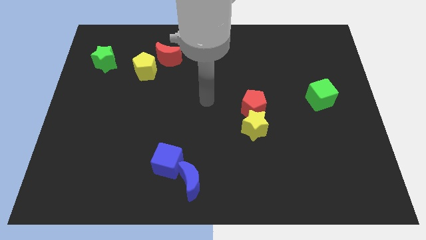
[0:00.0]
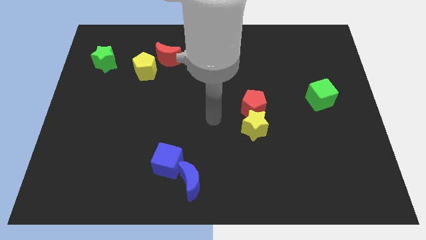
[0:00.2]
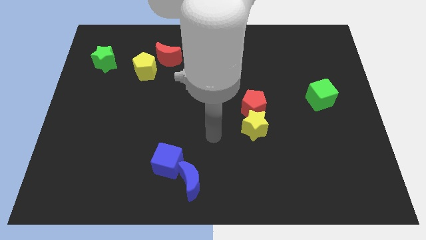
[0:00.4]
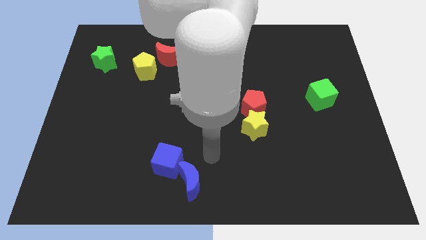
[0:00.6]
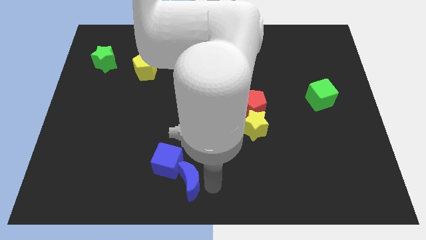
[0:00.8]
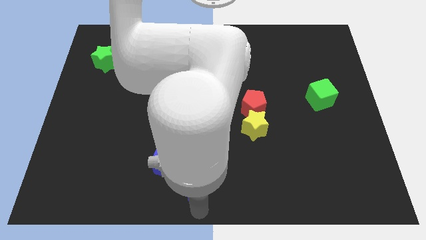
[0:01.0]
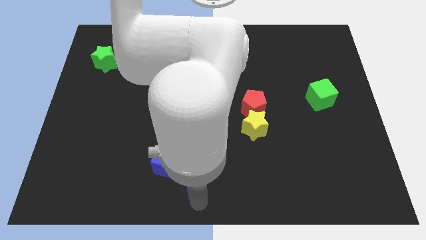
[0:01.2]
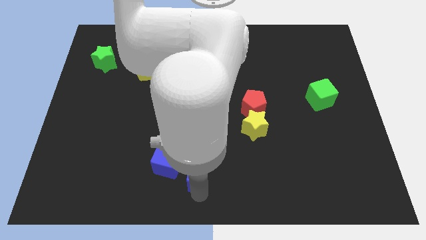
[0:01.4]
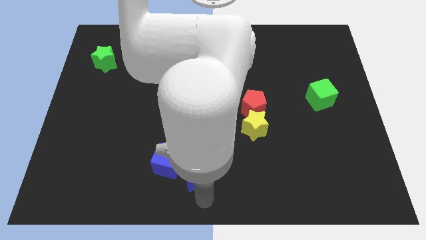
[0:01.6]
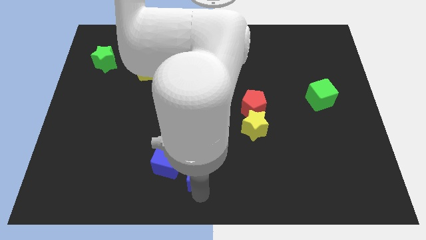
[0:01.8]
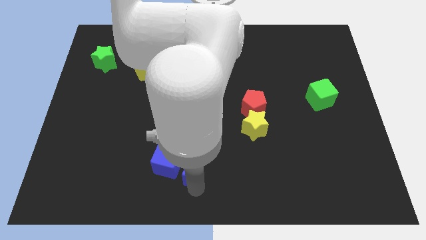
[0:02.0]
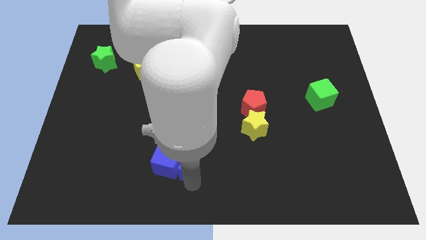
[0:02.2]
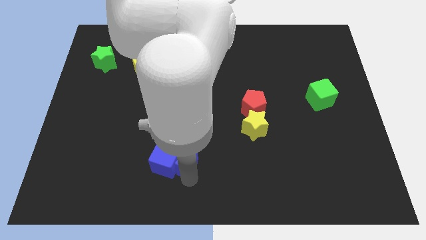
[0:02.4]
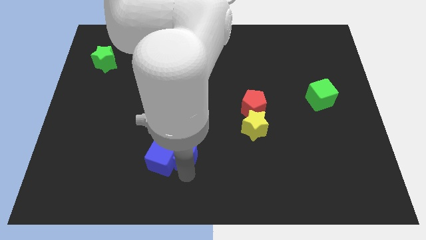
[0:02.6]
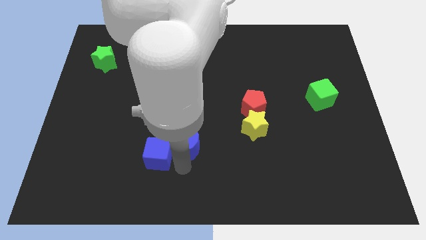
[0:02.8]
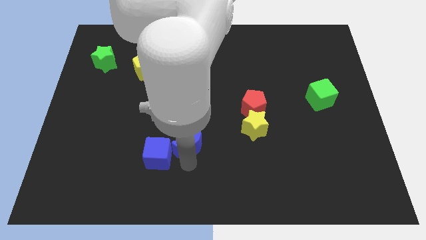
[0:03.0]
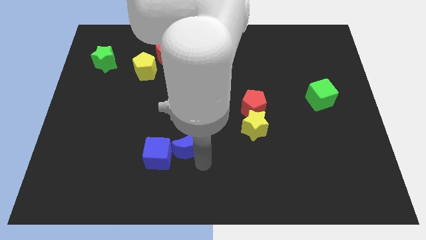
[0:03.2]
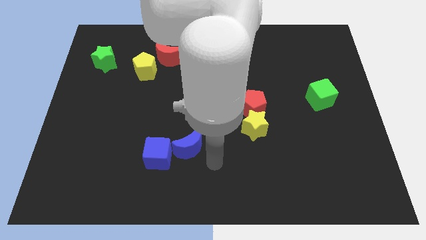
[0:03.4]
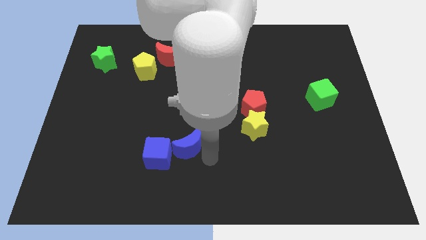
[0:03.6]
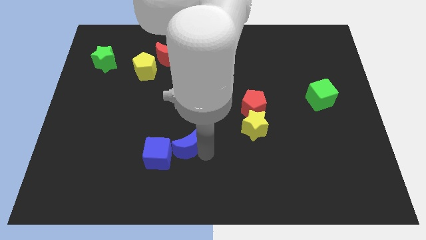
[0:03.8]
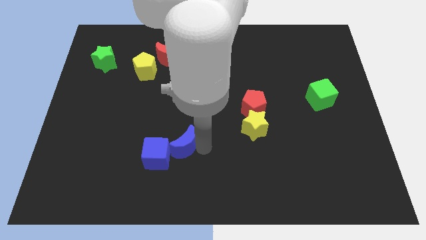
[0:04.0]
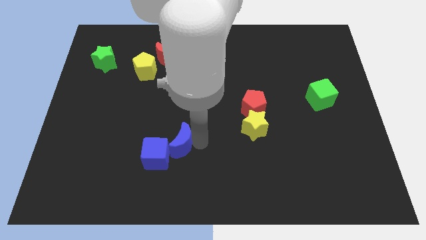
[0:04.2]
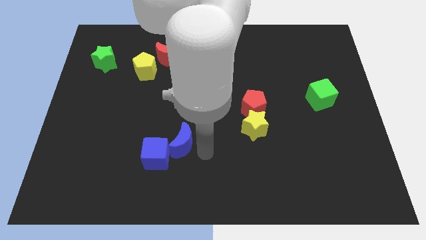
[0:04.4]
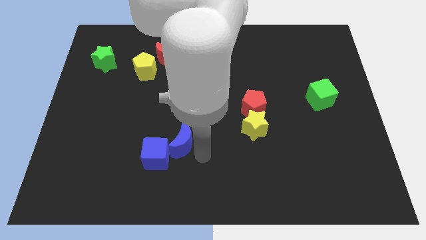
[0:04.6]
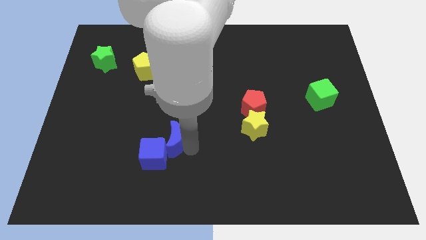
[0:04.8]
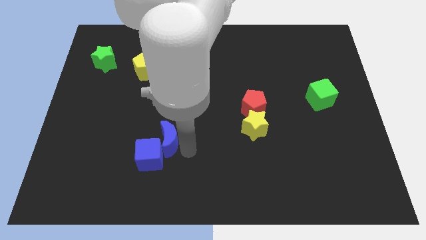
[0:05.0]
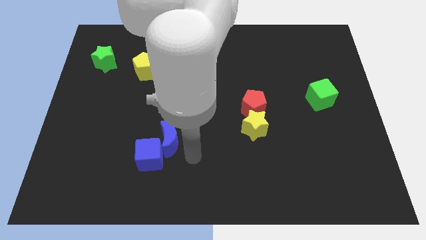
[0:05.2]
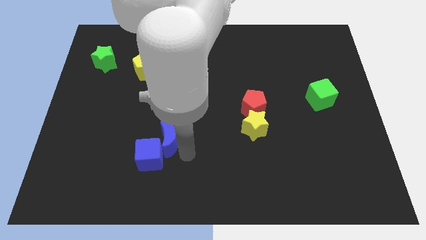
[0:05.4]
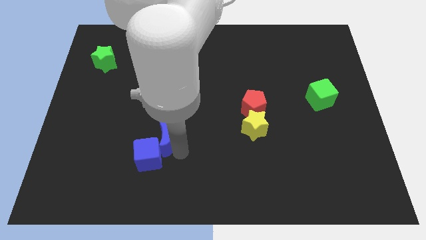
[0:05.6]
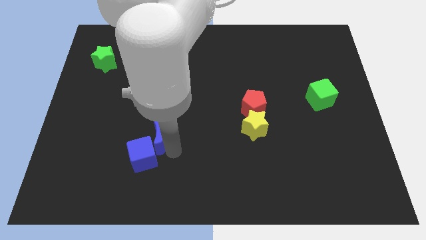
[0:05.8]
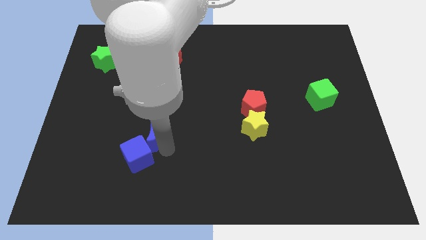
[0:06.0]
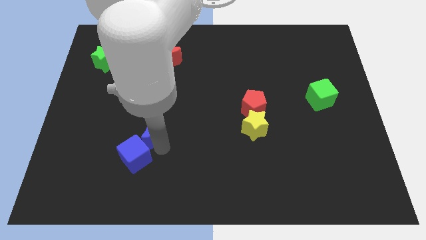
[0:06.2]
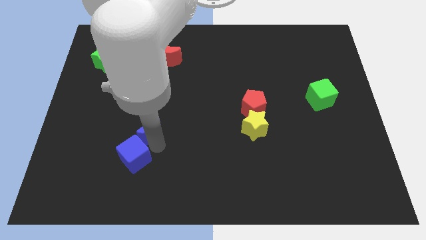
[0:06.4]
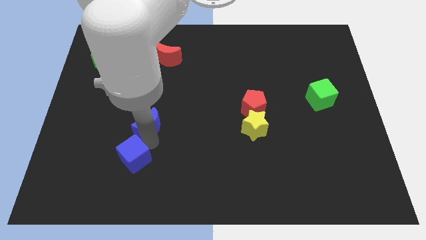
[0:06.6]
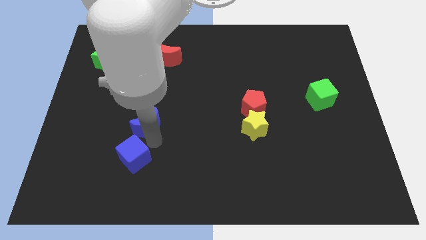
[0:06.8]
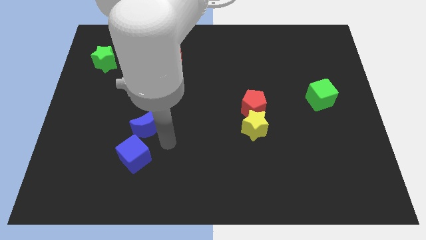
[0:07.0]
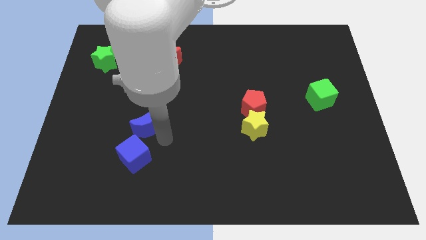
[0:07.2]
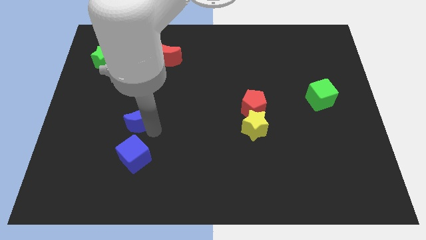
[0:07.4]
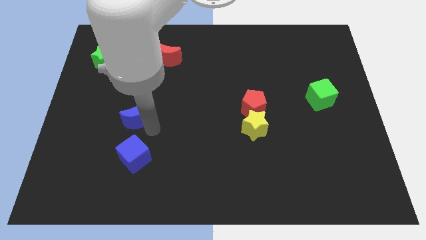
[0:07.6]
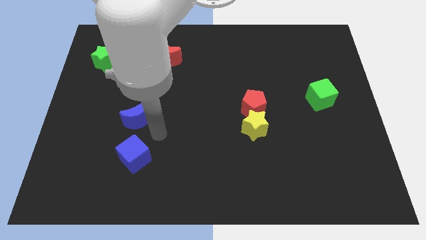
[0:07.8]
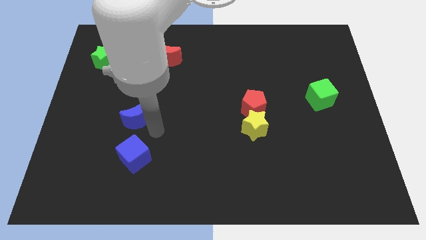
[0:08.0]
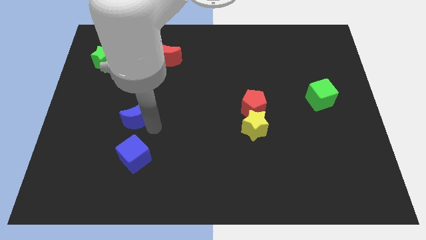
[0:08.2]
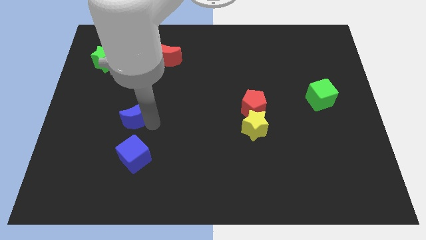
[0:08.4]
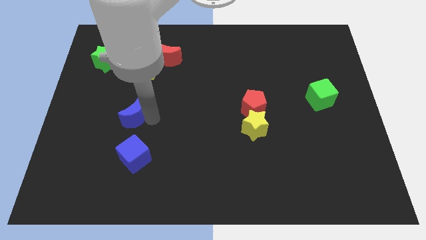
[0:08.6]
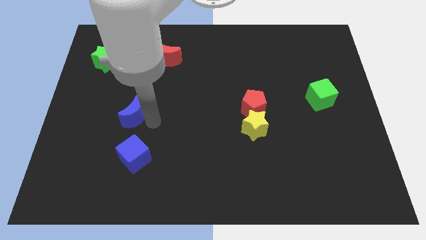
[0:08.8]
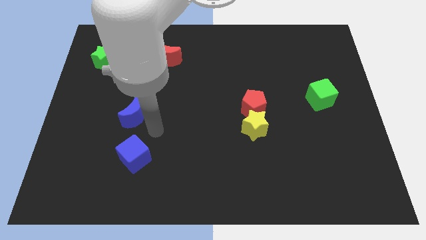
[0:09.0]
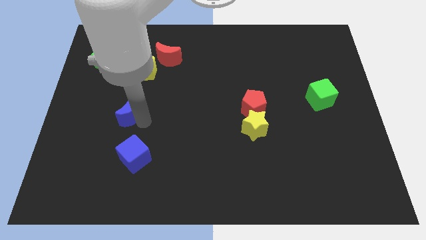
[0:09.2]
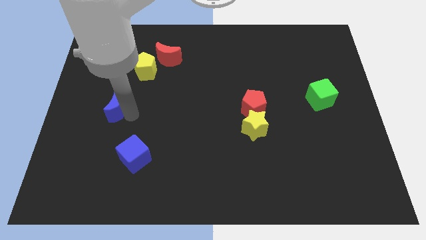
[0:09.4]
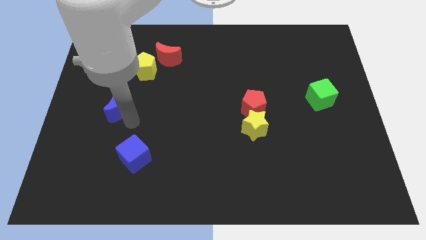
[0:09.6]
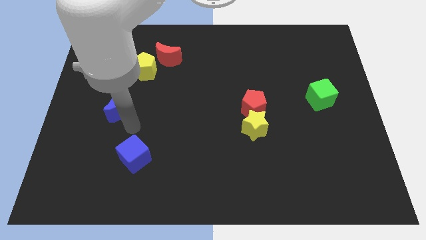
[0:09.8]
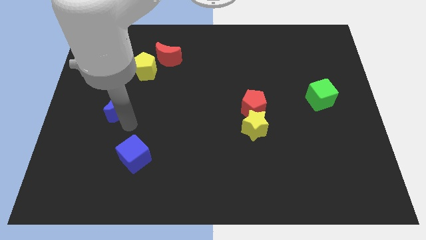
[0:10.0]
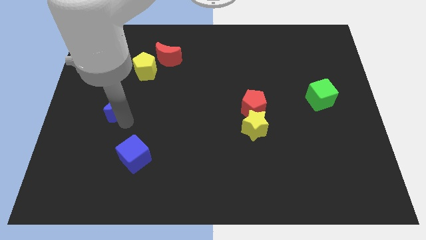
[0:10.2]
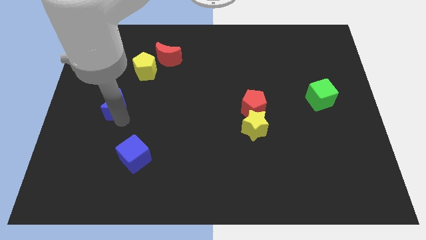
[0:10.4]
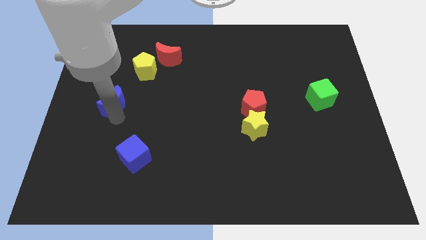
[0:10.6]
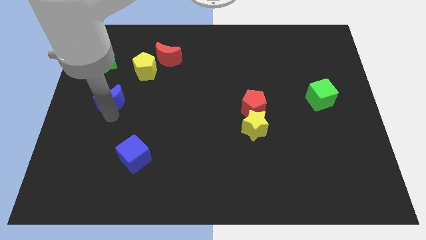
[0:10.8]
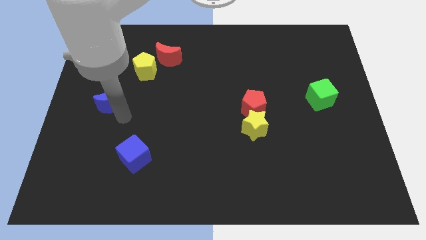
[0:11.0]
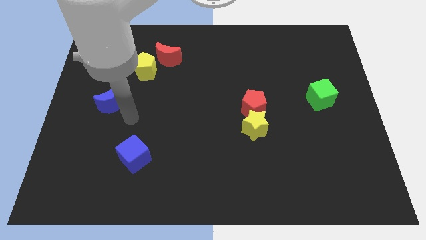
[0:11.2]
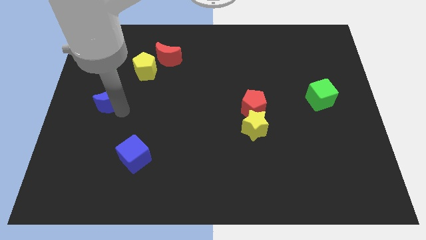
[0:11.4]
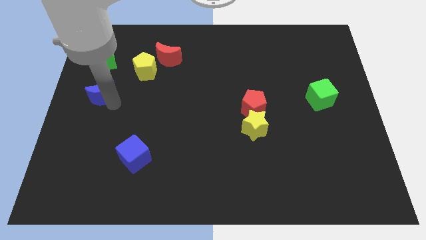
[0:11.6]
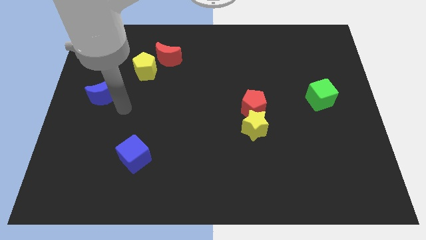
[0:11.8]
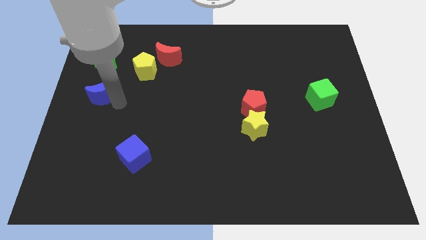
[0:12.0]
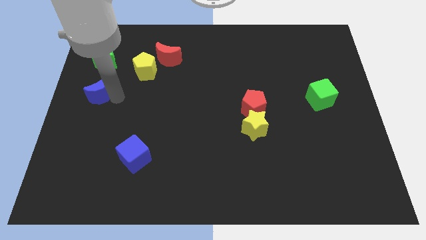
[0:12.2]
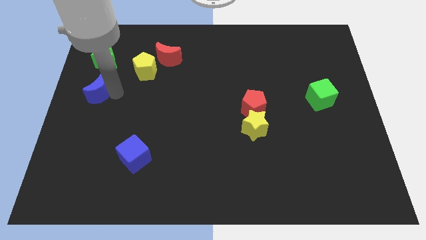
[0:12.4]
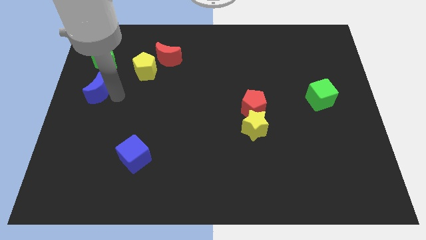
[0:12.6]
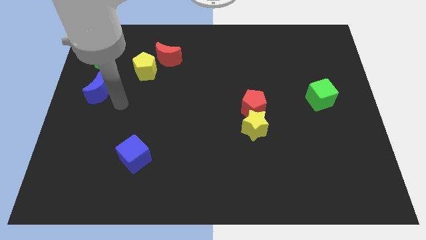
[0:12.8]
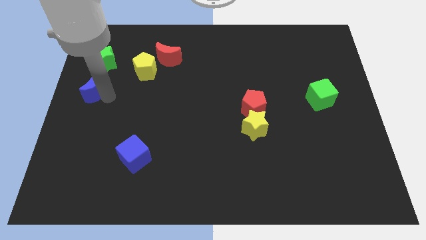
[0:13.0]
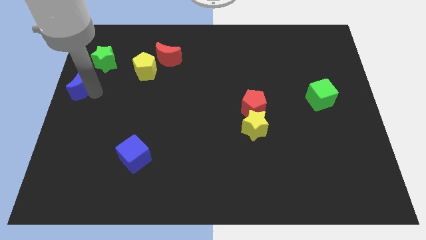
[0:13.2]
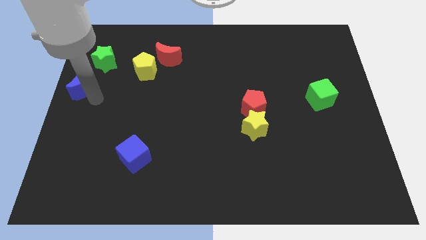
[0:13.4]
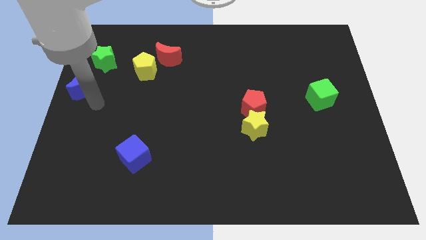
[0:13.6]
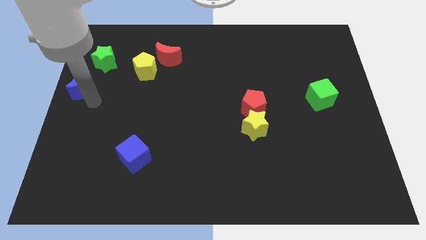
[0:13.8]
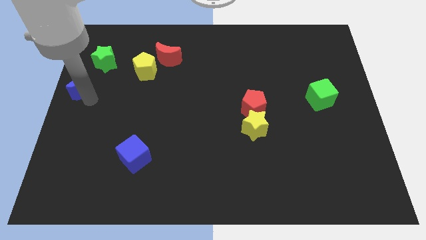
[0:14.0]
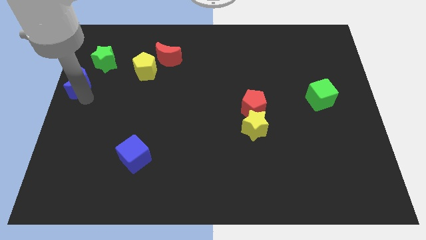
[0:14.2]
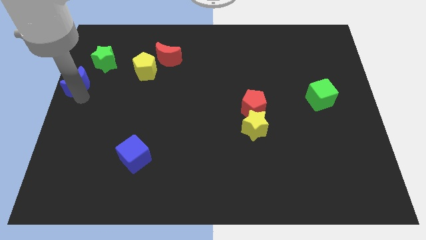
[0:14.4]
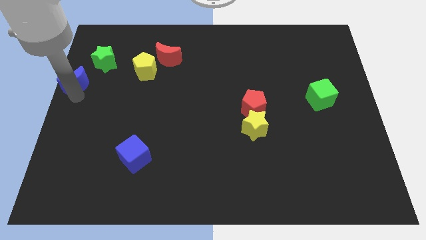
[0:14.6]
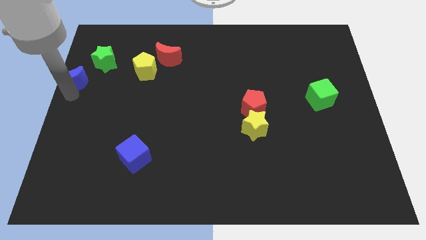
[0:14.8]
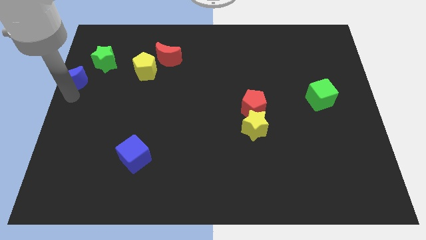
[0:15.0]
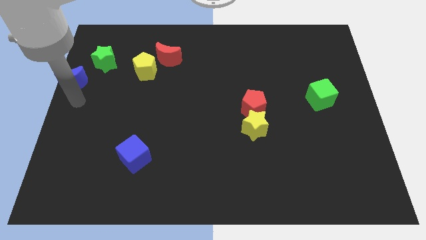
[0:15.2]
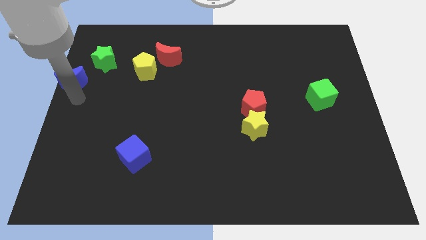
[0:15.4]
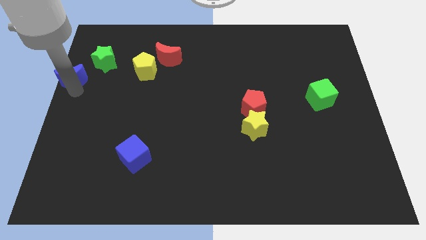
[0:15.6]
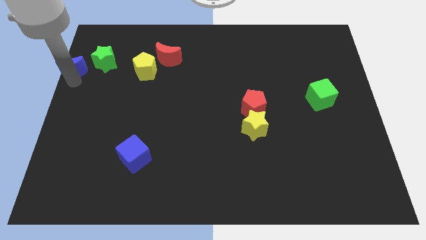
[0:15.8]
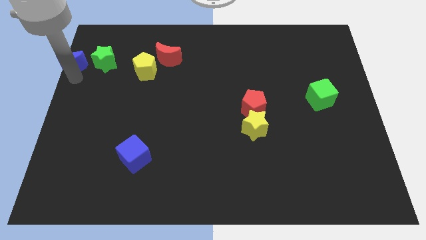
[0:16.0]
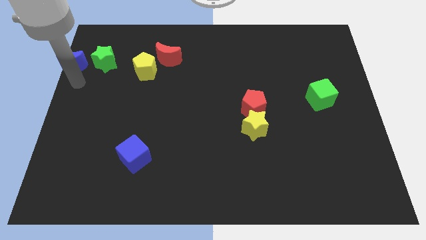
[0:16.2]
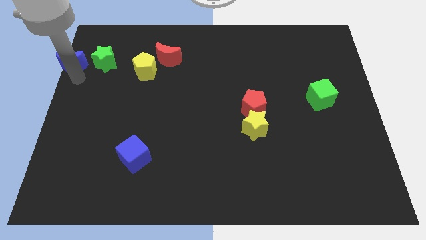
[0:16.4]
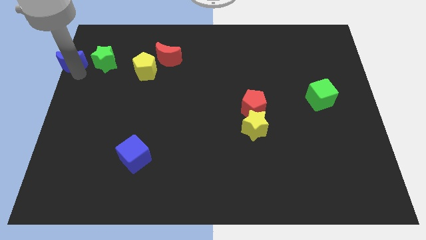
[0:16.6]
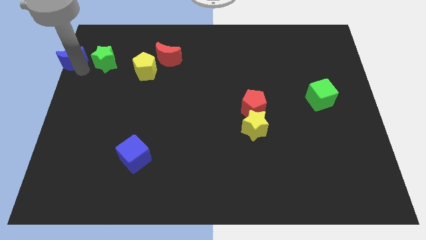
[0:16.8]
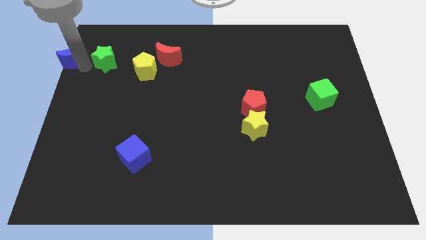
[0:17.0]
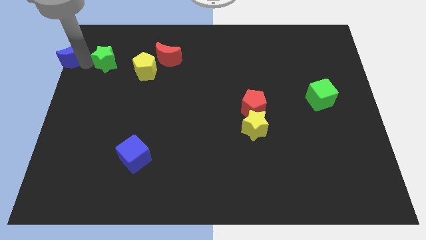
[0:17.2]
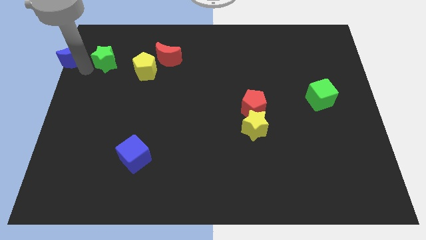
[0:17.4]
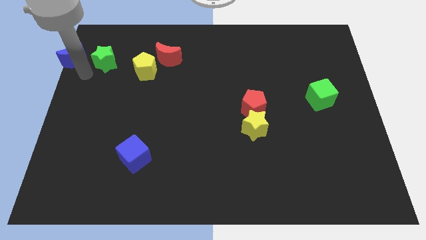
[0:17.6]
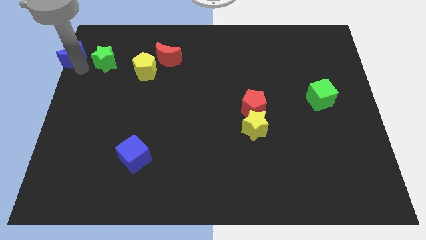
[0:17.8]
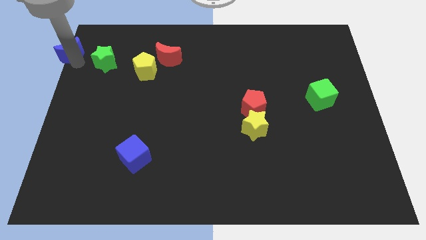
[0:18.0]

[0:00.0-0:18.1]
slide the blue moon to the top left of the board
